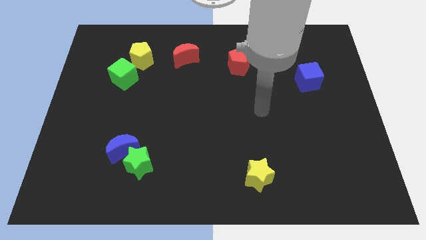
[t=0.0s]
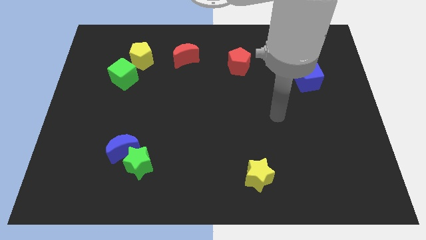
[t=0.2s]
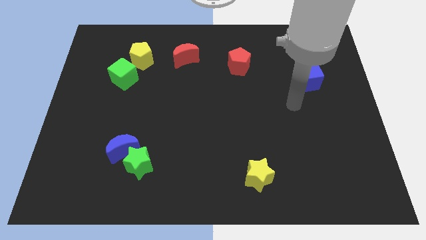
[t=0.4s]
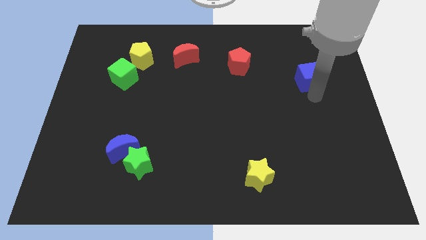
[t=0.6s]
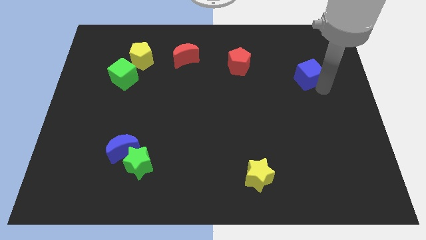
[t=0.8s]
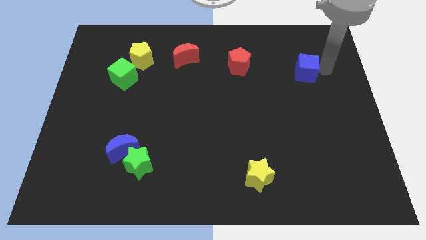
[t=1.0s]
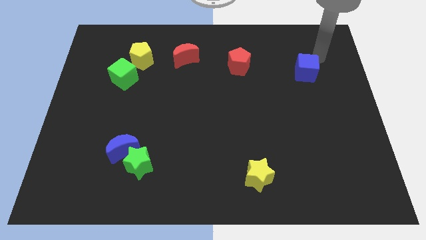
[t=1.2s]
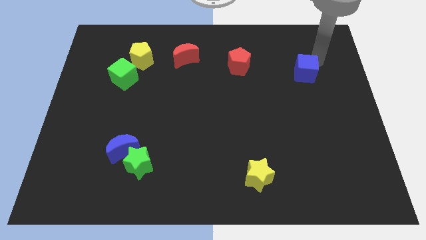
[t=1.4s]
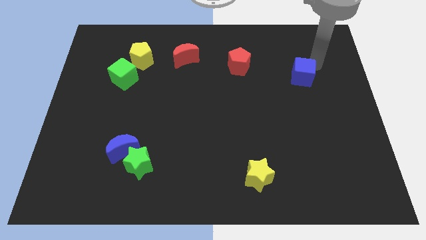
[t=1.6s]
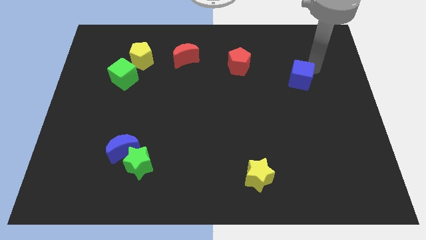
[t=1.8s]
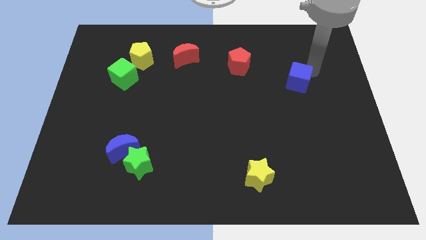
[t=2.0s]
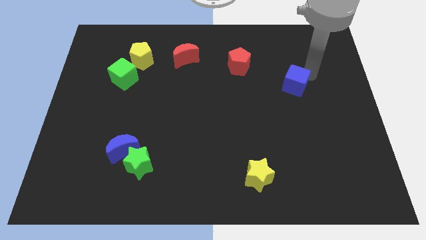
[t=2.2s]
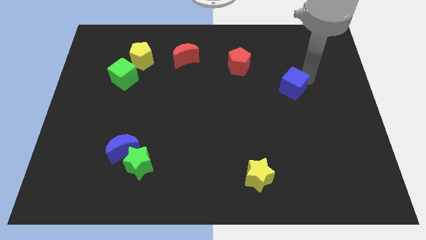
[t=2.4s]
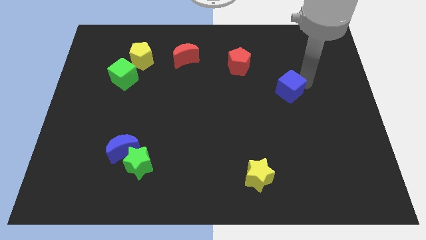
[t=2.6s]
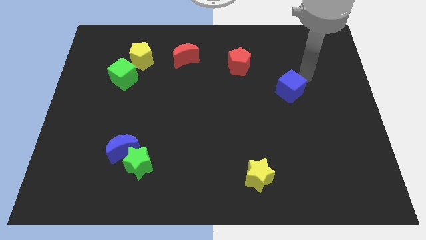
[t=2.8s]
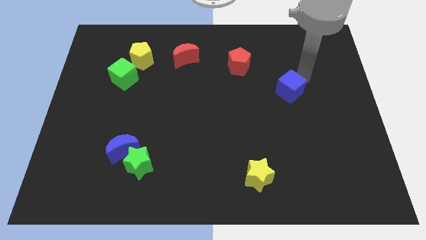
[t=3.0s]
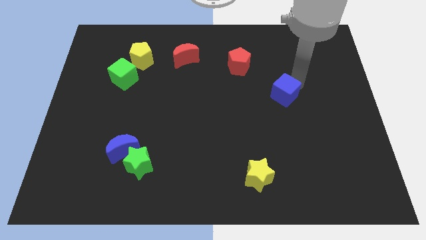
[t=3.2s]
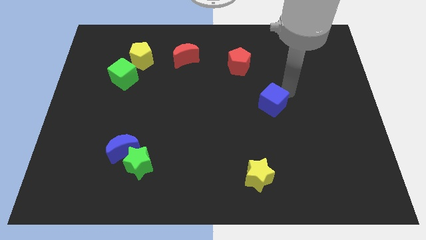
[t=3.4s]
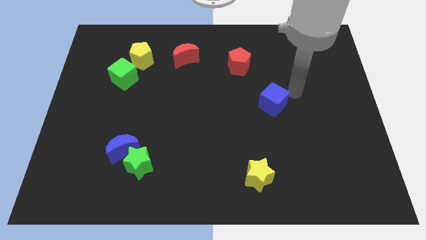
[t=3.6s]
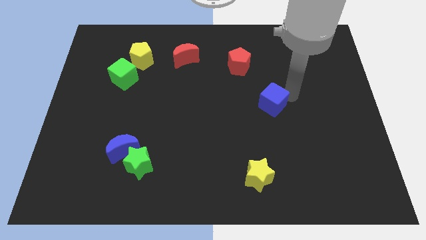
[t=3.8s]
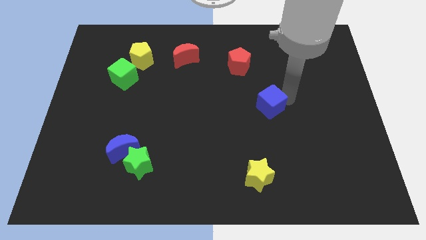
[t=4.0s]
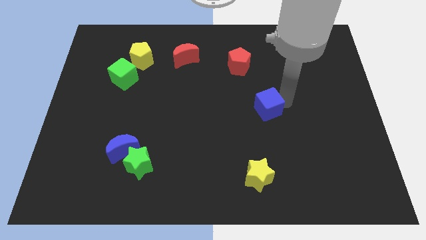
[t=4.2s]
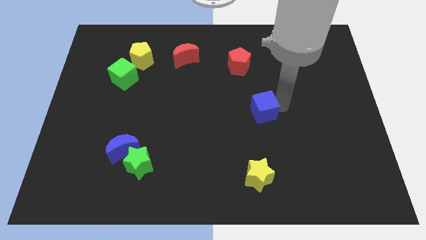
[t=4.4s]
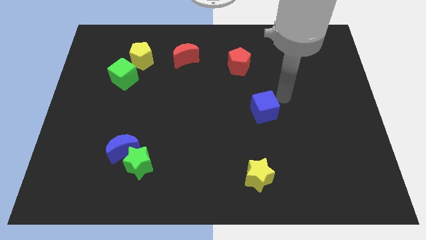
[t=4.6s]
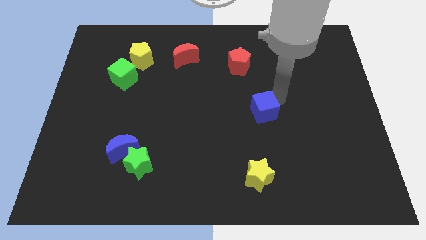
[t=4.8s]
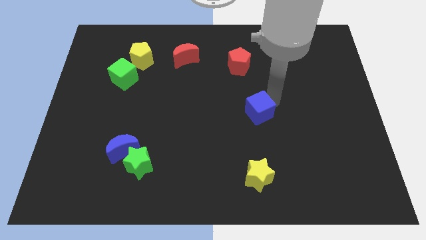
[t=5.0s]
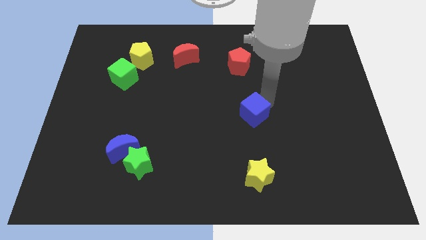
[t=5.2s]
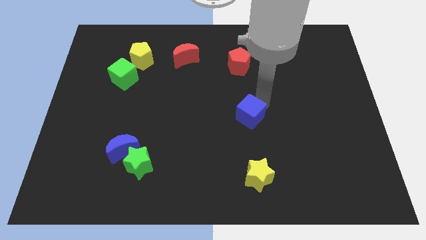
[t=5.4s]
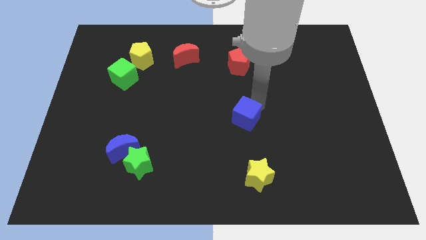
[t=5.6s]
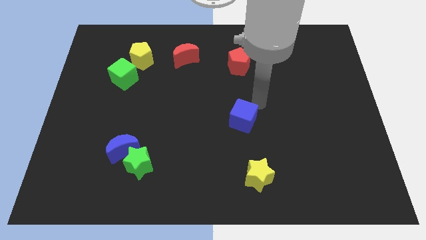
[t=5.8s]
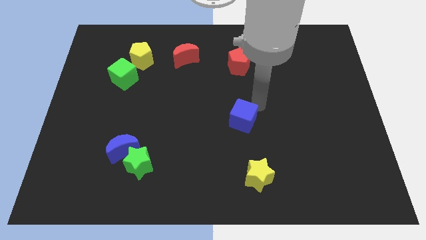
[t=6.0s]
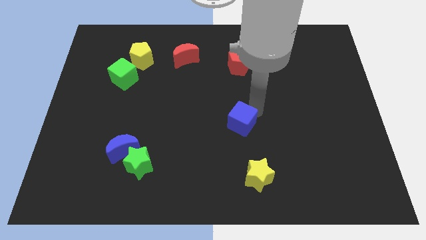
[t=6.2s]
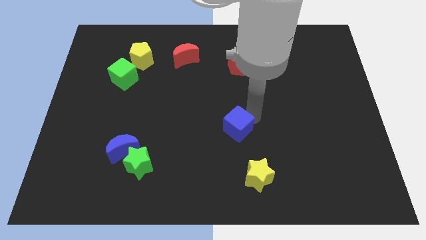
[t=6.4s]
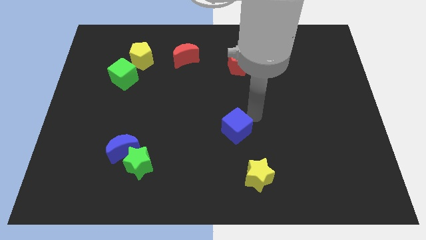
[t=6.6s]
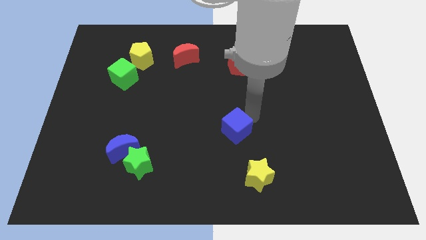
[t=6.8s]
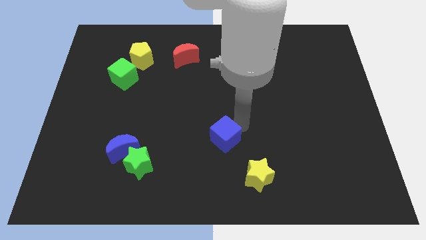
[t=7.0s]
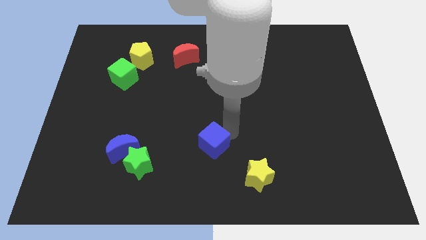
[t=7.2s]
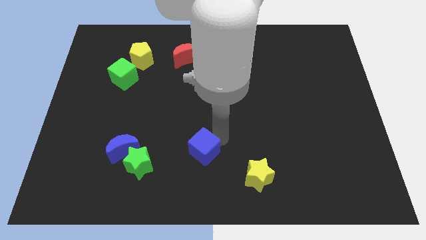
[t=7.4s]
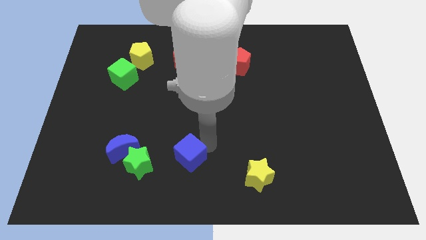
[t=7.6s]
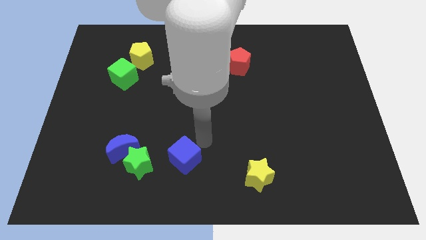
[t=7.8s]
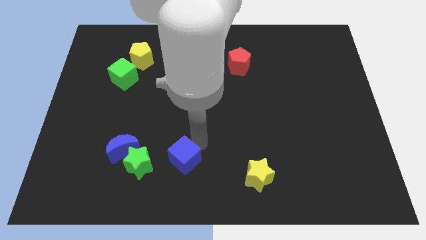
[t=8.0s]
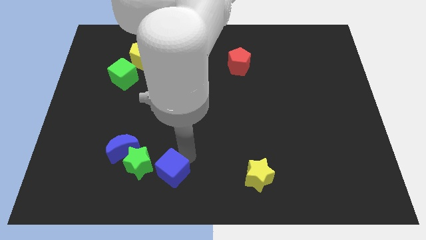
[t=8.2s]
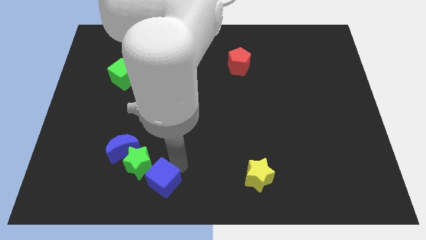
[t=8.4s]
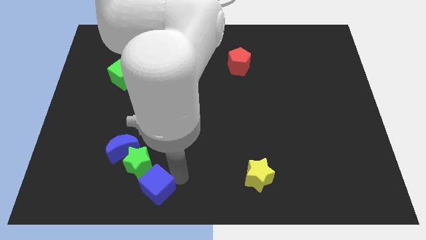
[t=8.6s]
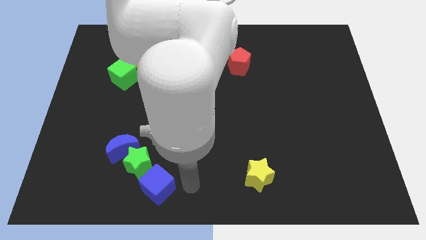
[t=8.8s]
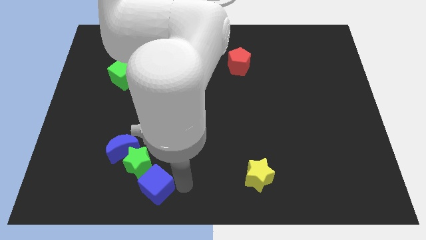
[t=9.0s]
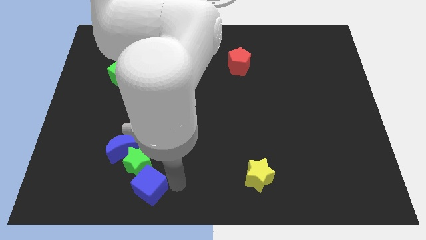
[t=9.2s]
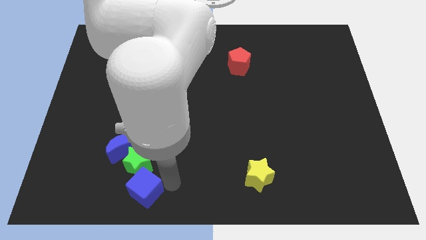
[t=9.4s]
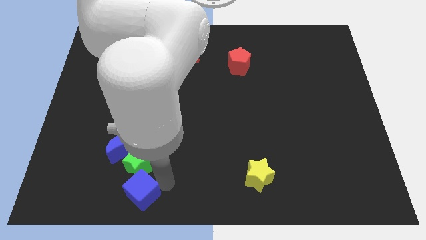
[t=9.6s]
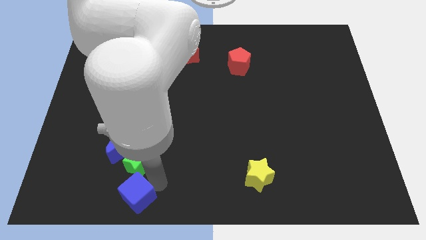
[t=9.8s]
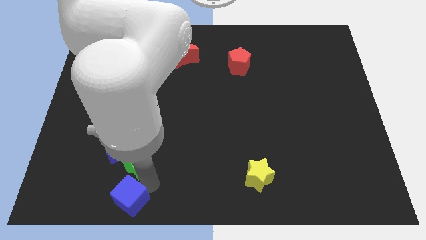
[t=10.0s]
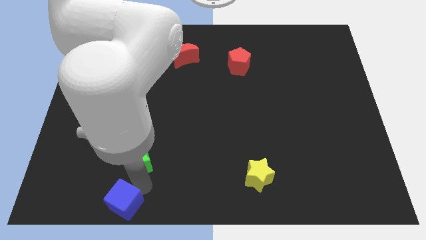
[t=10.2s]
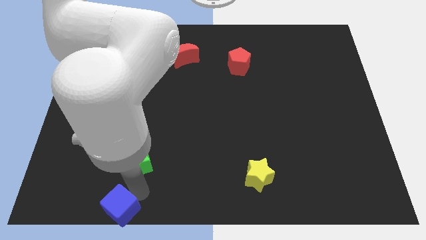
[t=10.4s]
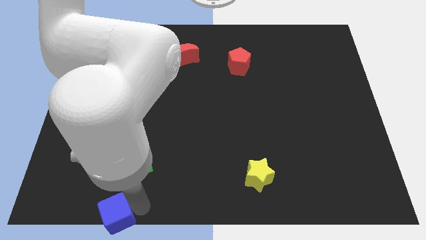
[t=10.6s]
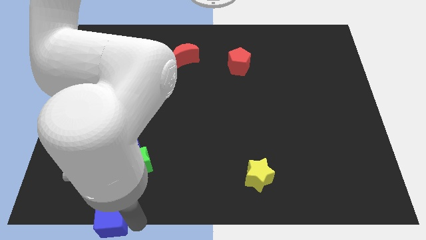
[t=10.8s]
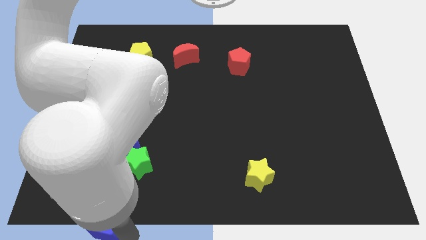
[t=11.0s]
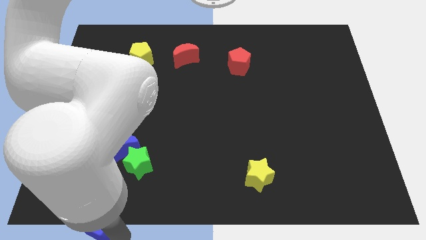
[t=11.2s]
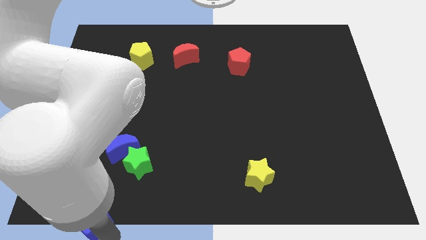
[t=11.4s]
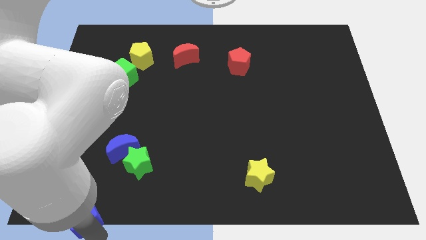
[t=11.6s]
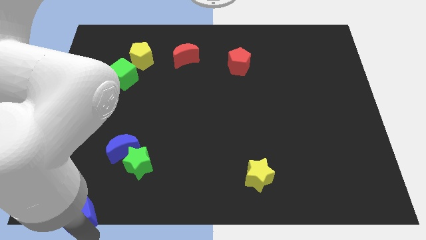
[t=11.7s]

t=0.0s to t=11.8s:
push the blue cube to the bottom left corner

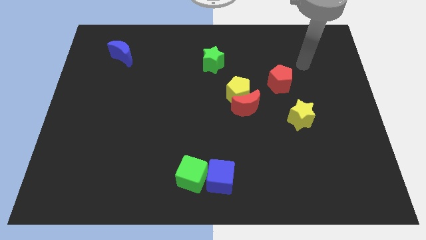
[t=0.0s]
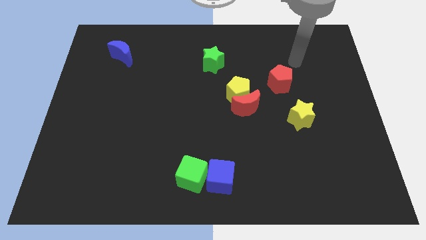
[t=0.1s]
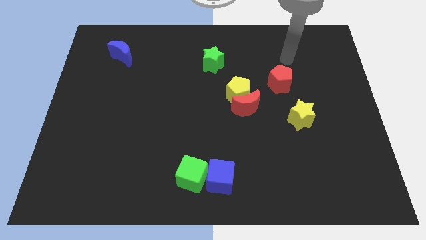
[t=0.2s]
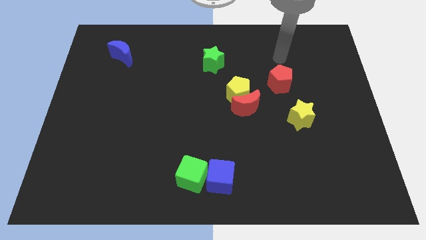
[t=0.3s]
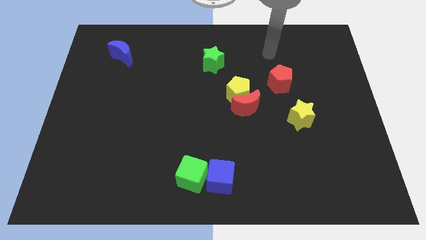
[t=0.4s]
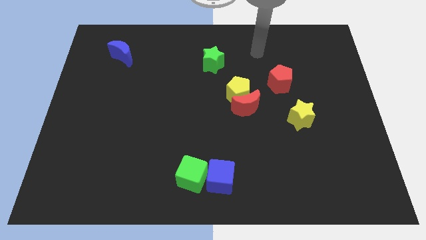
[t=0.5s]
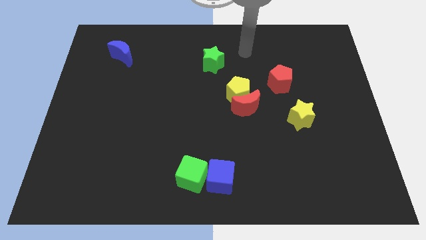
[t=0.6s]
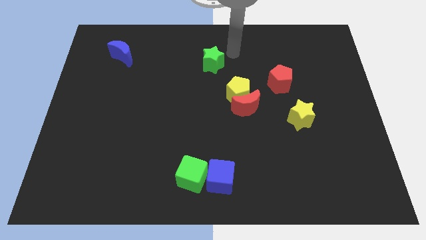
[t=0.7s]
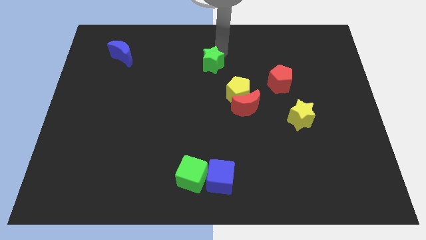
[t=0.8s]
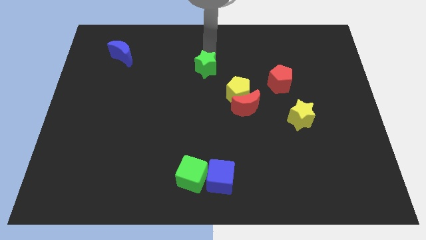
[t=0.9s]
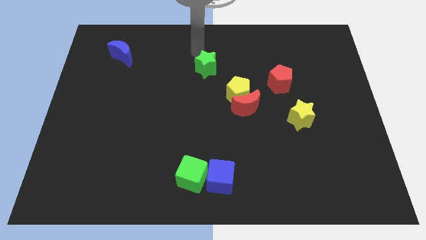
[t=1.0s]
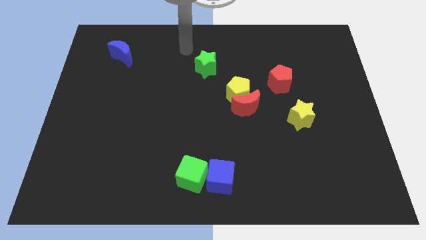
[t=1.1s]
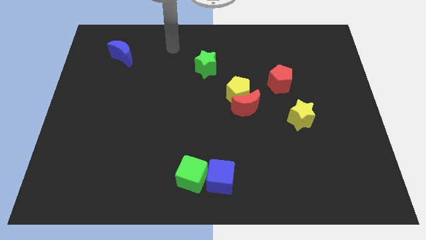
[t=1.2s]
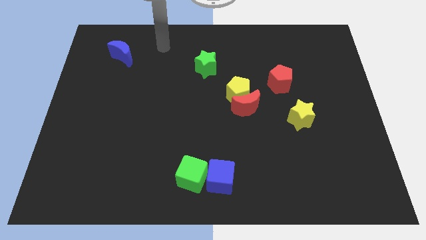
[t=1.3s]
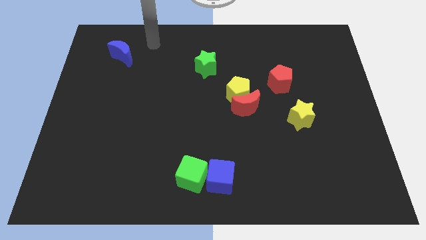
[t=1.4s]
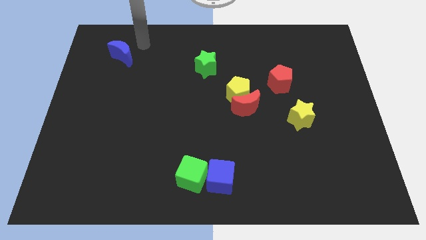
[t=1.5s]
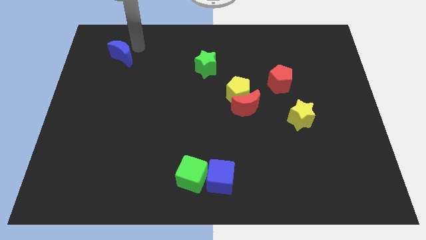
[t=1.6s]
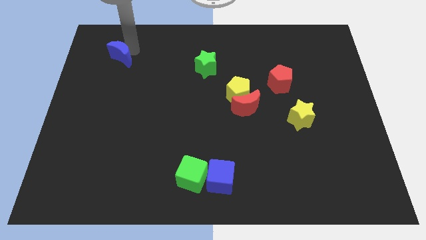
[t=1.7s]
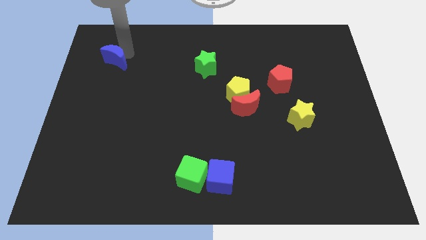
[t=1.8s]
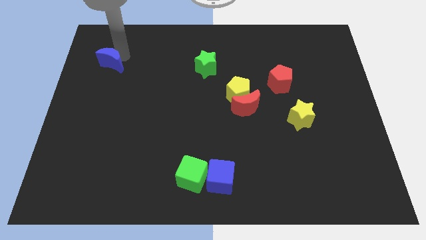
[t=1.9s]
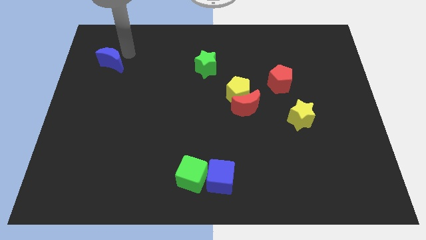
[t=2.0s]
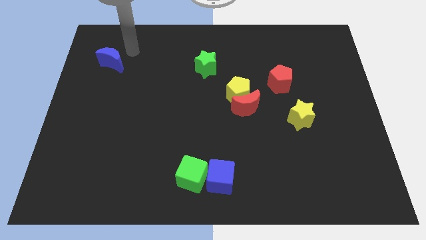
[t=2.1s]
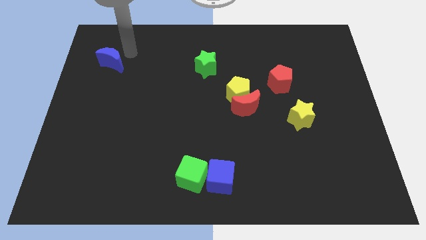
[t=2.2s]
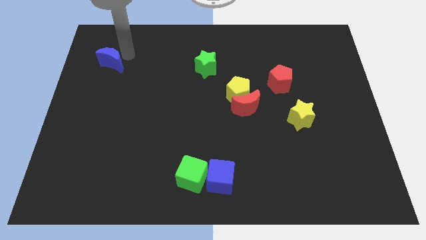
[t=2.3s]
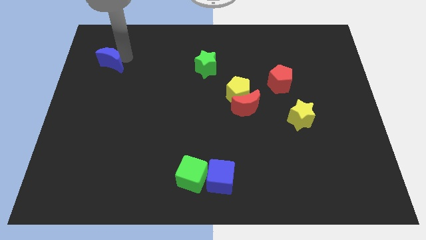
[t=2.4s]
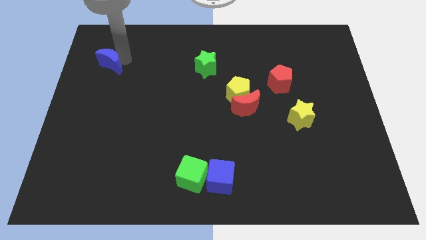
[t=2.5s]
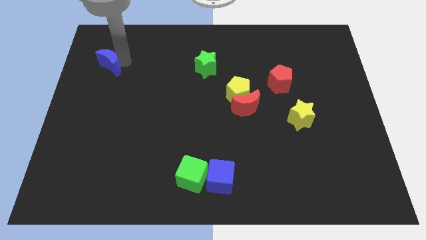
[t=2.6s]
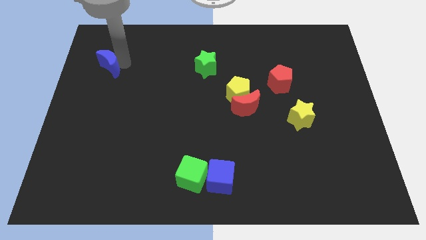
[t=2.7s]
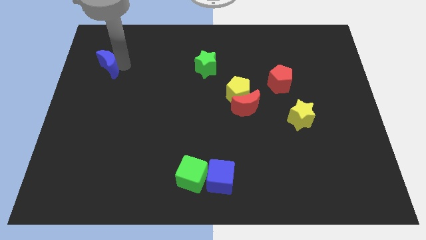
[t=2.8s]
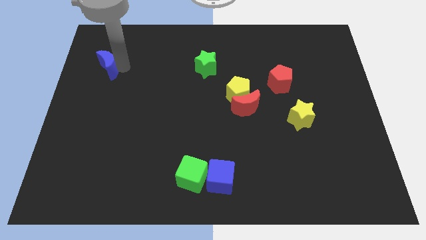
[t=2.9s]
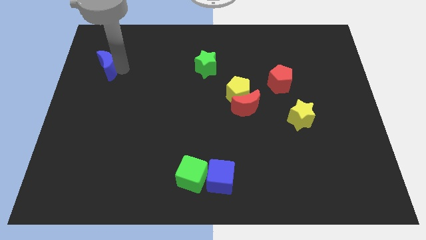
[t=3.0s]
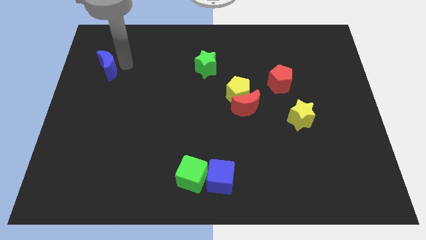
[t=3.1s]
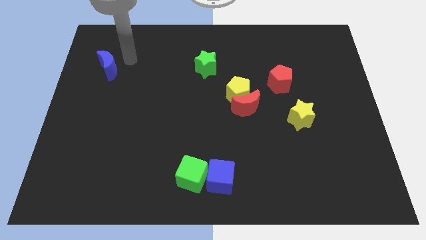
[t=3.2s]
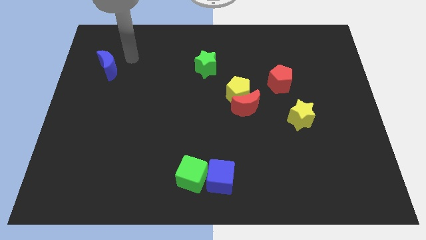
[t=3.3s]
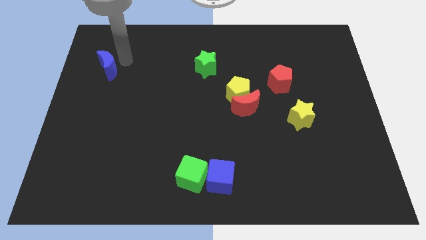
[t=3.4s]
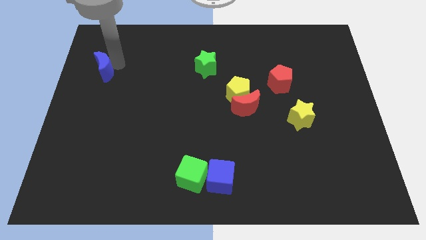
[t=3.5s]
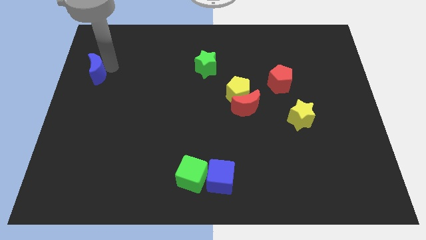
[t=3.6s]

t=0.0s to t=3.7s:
slide the blue moon to the left side of the board
